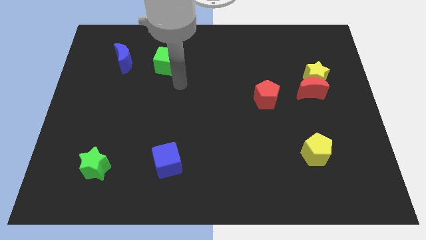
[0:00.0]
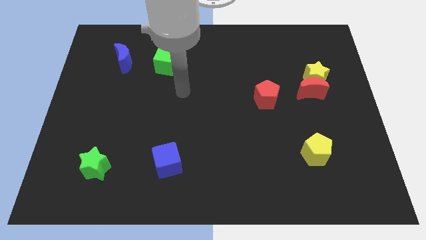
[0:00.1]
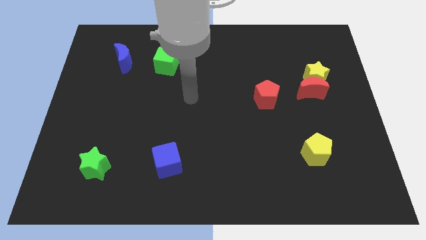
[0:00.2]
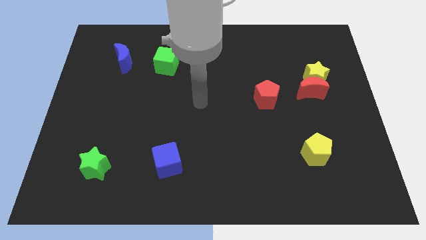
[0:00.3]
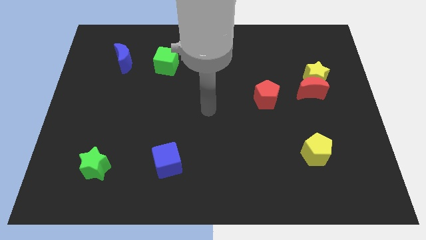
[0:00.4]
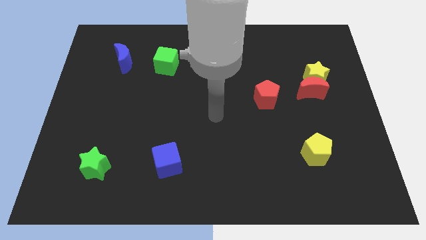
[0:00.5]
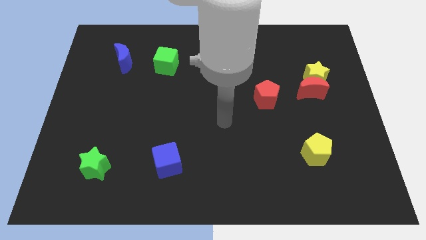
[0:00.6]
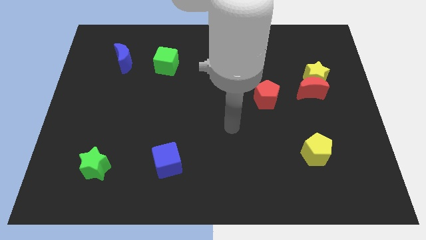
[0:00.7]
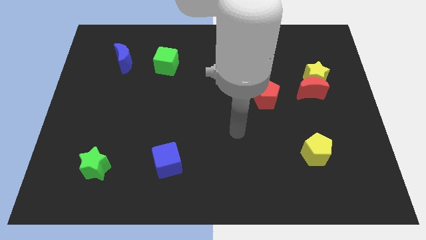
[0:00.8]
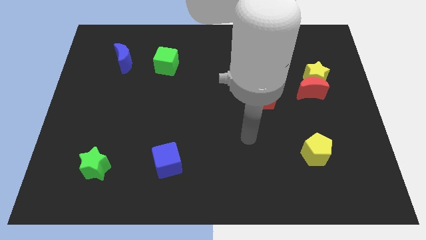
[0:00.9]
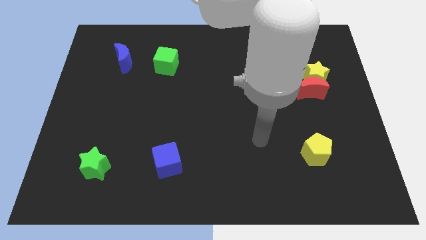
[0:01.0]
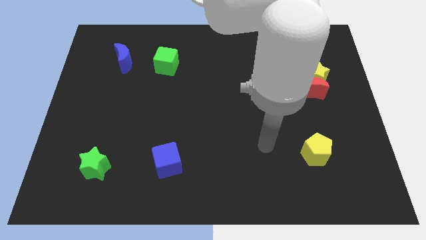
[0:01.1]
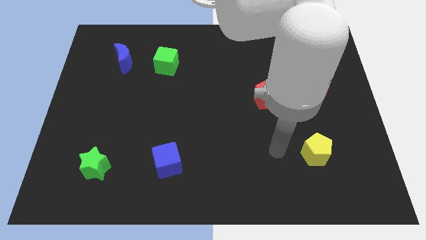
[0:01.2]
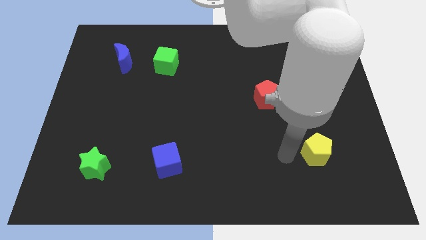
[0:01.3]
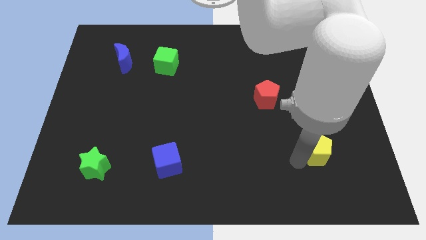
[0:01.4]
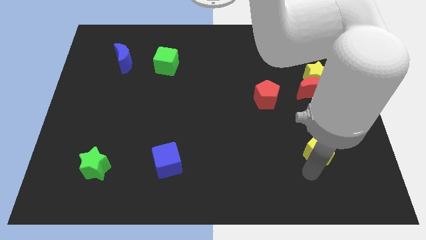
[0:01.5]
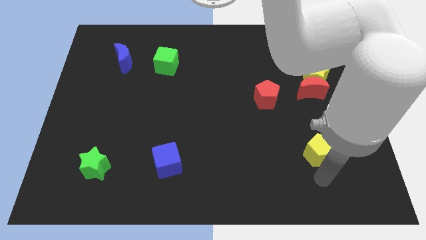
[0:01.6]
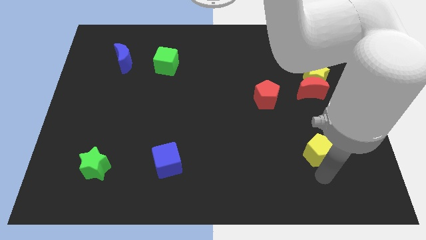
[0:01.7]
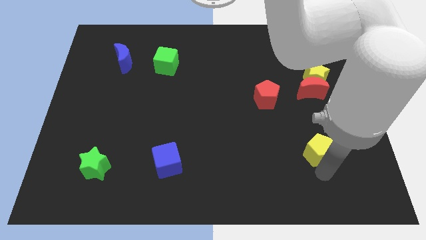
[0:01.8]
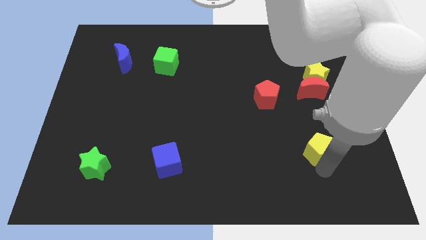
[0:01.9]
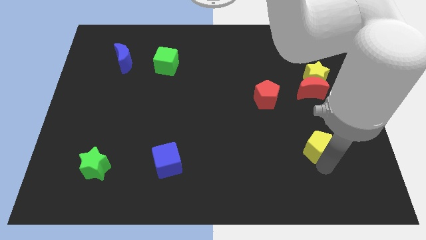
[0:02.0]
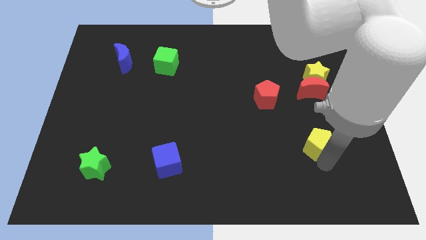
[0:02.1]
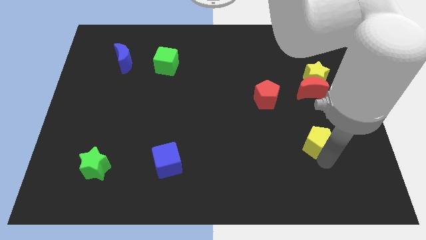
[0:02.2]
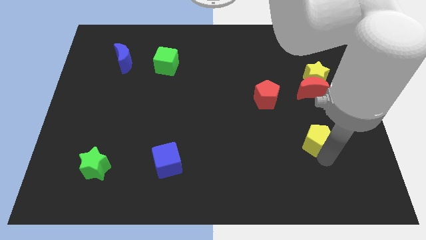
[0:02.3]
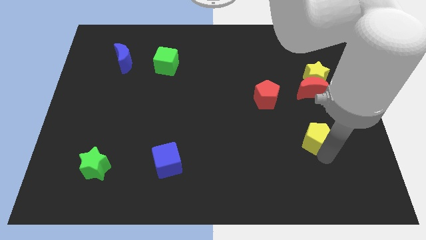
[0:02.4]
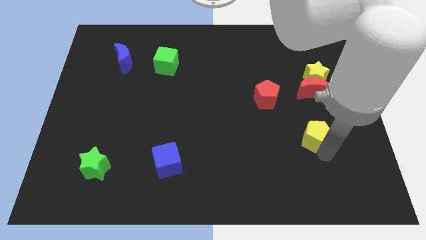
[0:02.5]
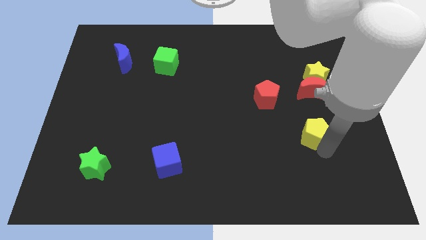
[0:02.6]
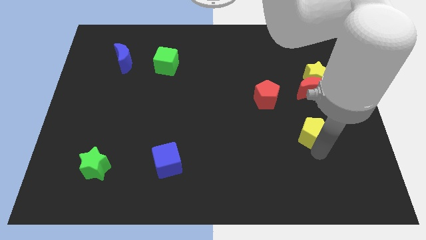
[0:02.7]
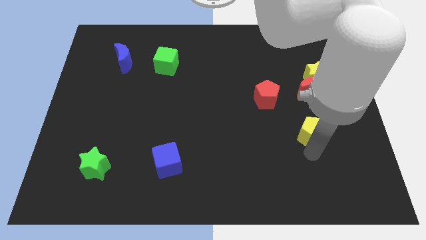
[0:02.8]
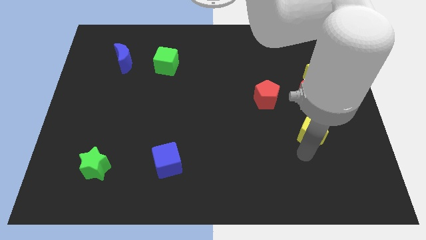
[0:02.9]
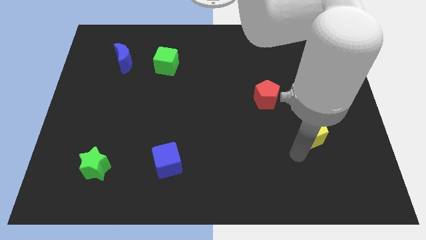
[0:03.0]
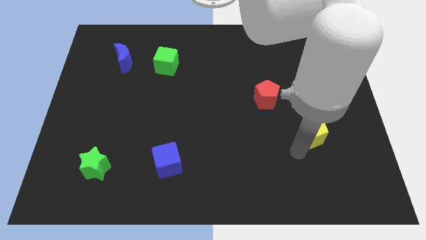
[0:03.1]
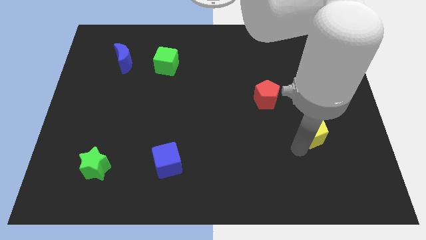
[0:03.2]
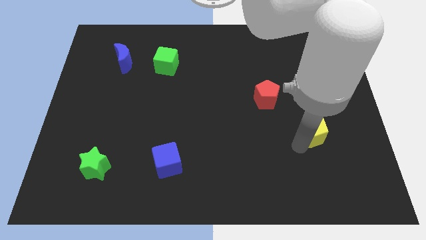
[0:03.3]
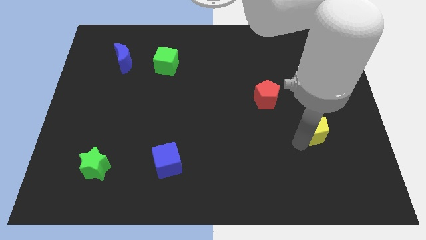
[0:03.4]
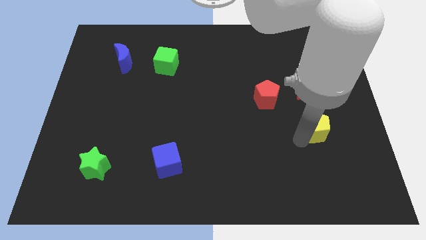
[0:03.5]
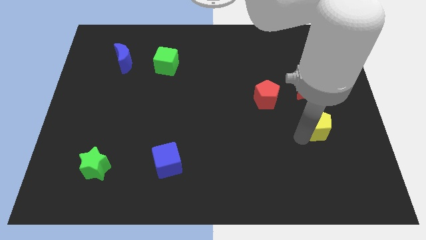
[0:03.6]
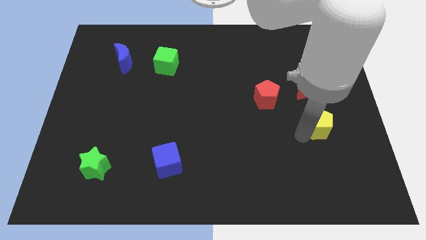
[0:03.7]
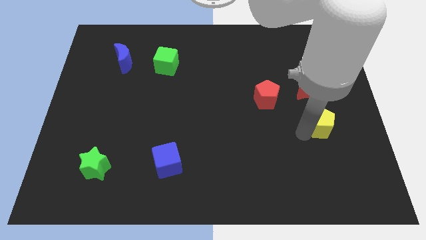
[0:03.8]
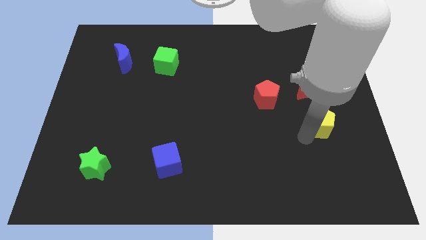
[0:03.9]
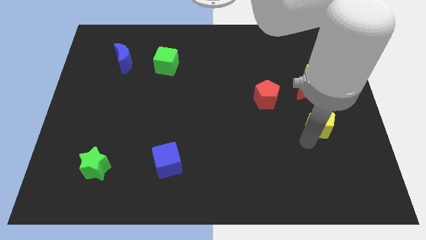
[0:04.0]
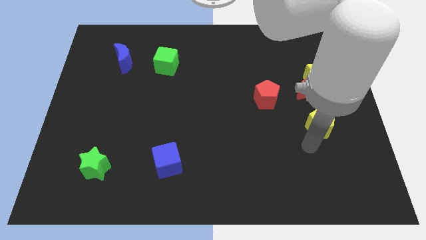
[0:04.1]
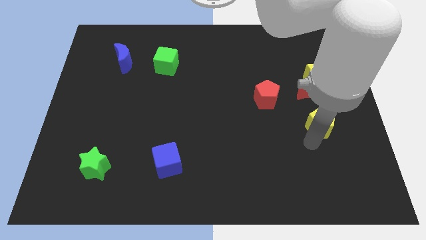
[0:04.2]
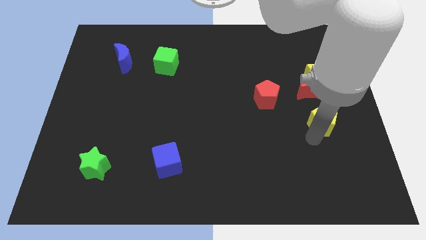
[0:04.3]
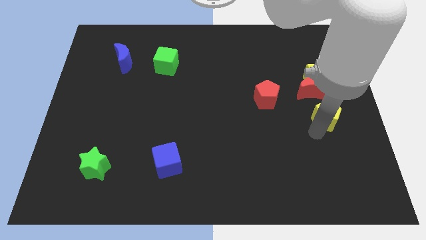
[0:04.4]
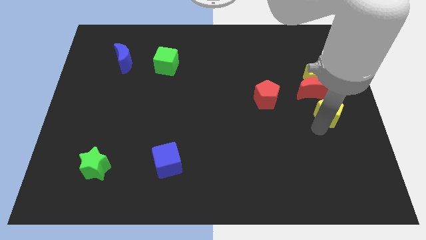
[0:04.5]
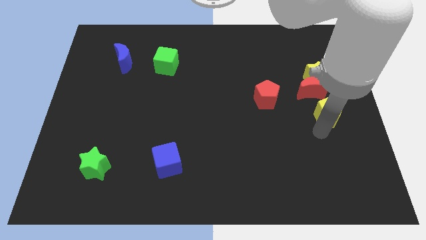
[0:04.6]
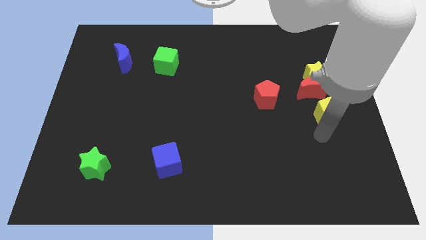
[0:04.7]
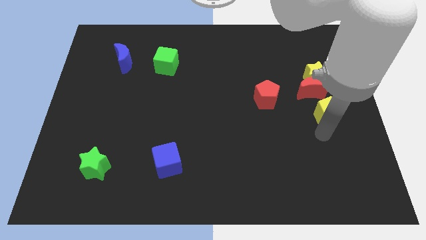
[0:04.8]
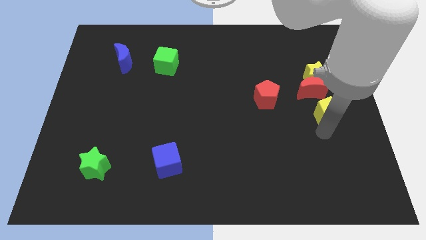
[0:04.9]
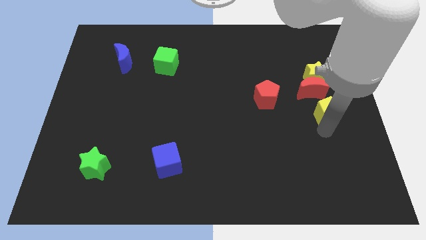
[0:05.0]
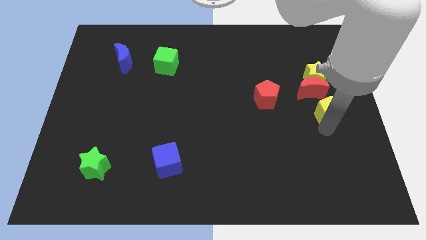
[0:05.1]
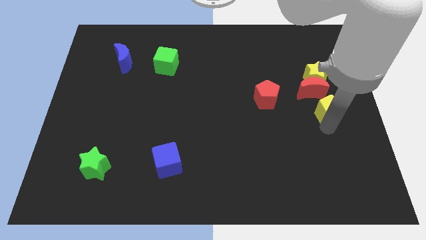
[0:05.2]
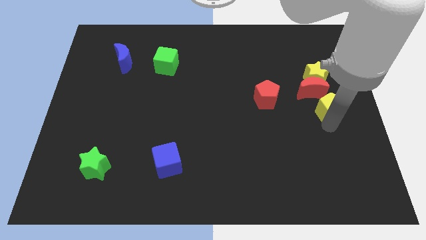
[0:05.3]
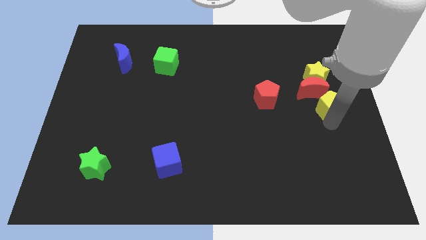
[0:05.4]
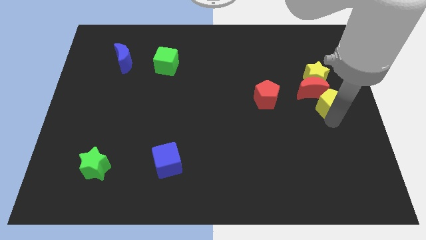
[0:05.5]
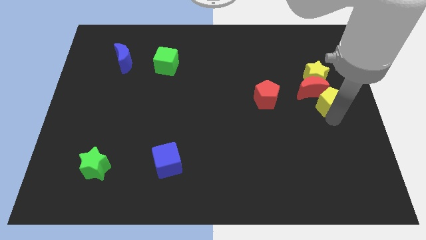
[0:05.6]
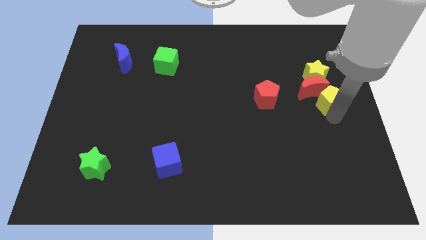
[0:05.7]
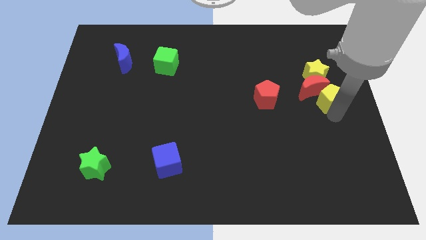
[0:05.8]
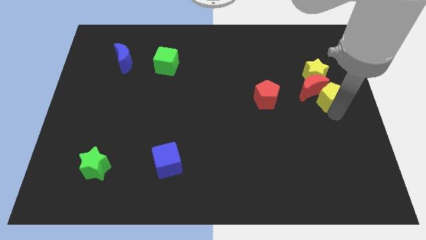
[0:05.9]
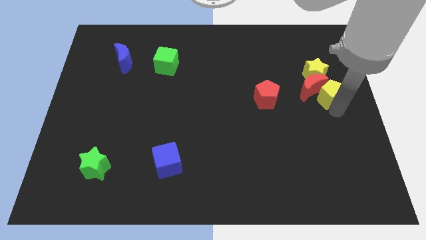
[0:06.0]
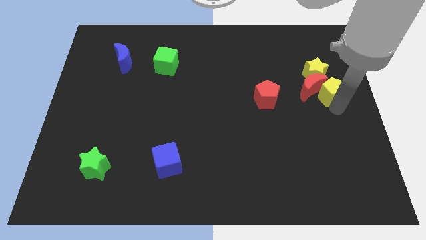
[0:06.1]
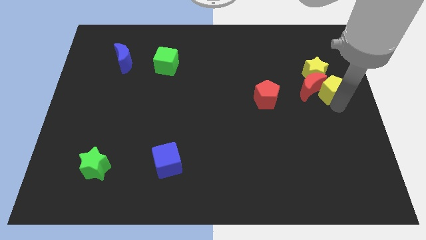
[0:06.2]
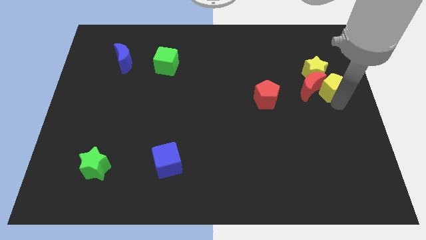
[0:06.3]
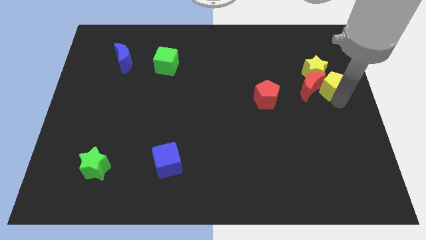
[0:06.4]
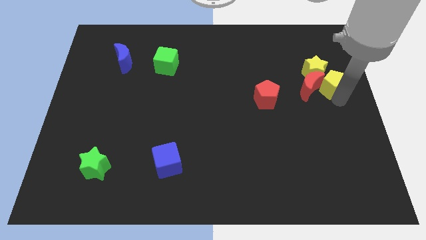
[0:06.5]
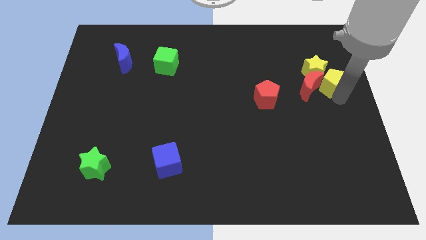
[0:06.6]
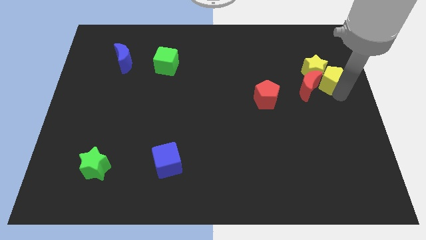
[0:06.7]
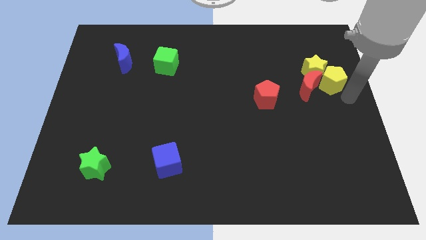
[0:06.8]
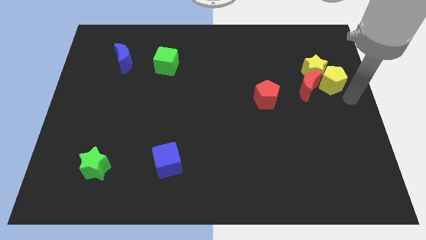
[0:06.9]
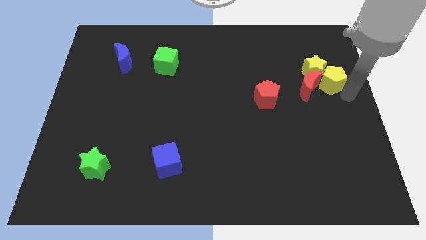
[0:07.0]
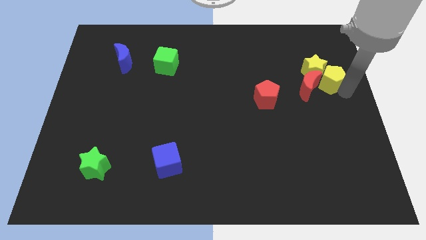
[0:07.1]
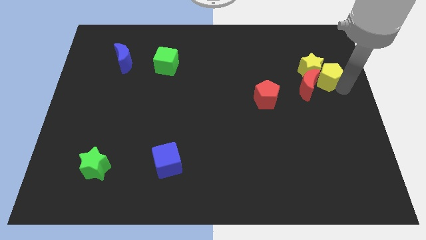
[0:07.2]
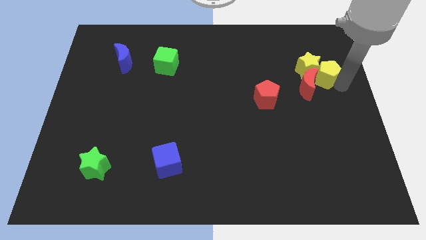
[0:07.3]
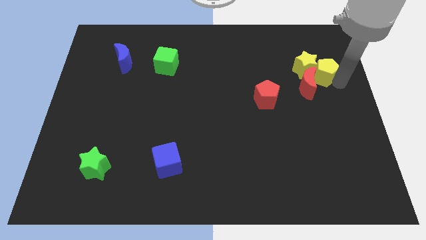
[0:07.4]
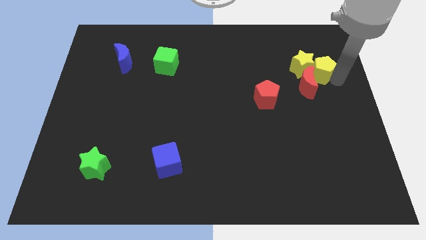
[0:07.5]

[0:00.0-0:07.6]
move the yellow pentagon to the top side of the red moon
